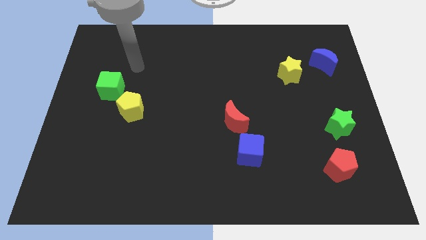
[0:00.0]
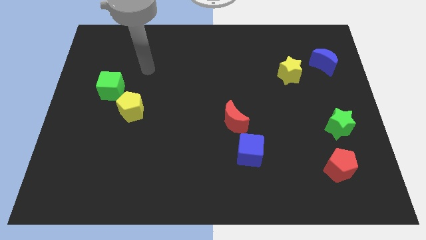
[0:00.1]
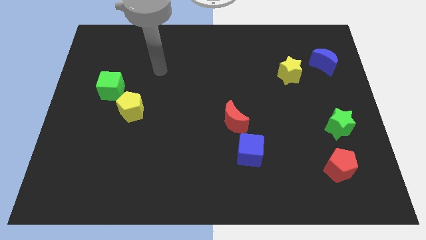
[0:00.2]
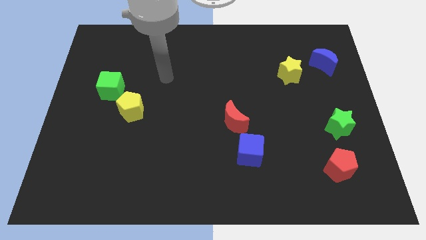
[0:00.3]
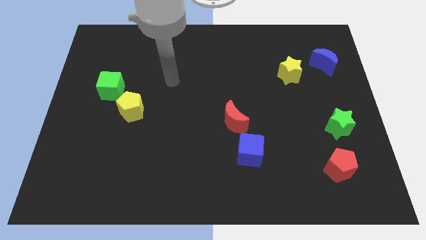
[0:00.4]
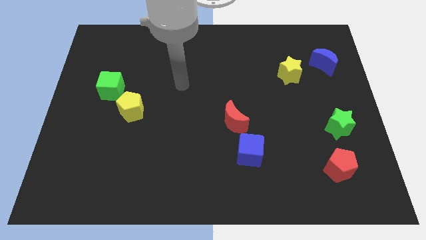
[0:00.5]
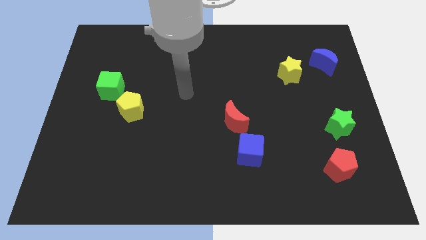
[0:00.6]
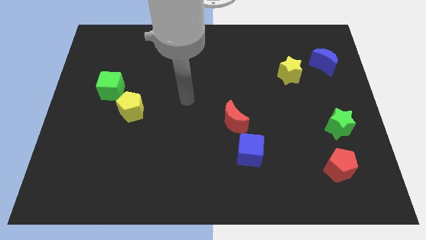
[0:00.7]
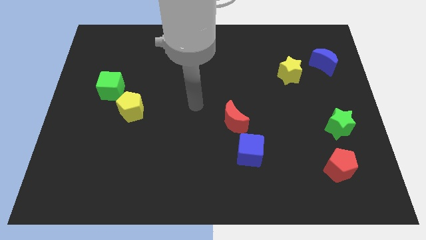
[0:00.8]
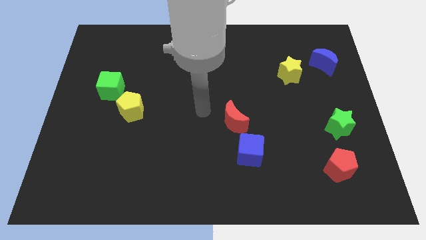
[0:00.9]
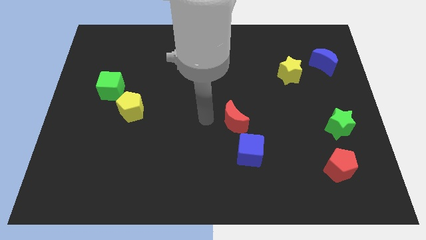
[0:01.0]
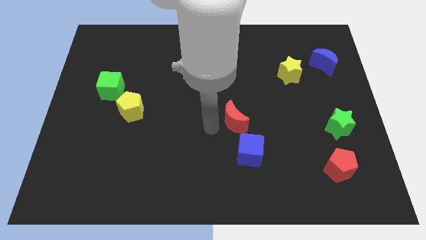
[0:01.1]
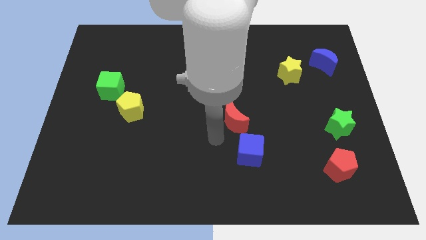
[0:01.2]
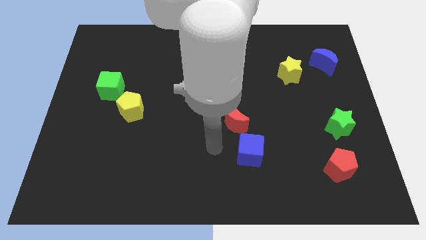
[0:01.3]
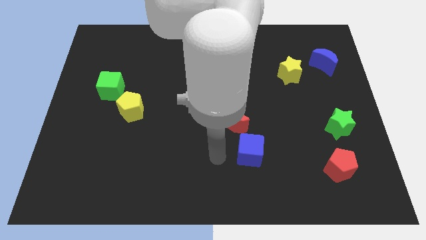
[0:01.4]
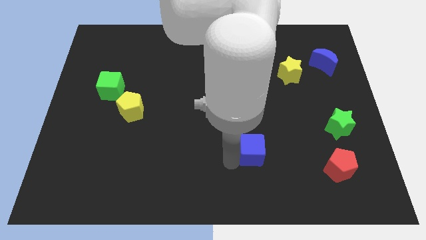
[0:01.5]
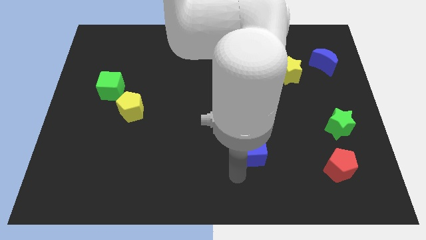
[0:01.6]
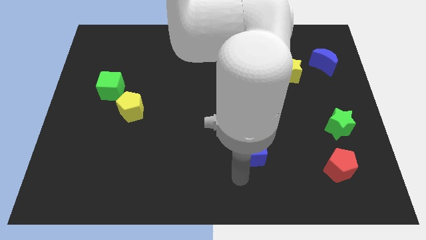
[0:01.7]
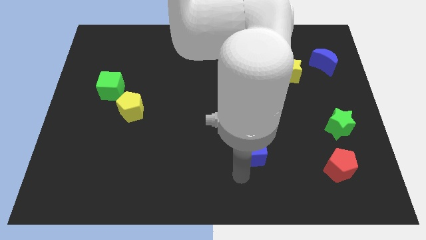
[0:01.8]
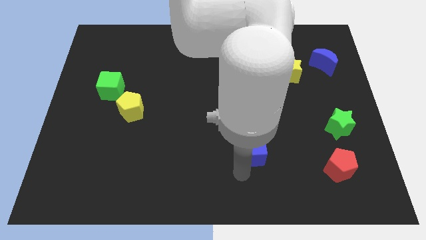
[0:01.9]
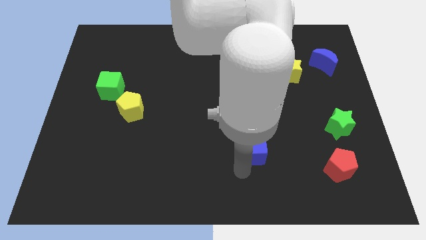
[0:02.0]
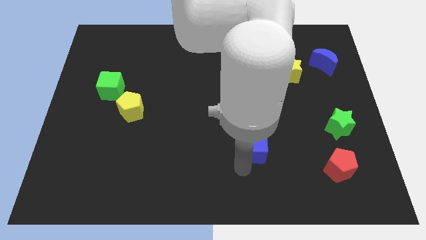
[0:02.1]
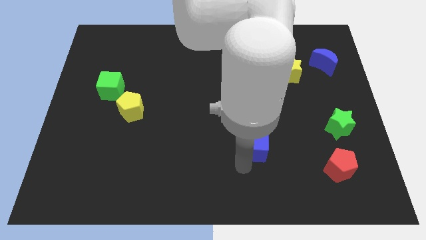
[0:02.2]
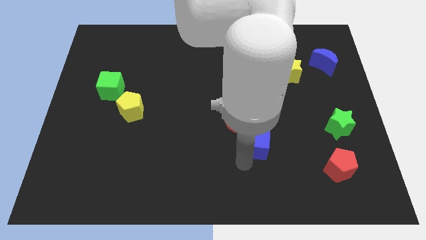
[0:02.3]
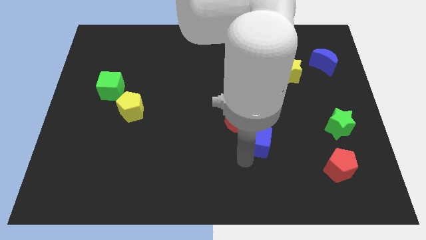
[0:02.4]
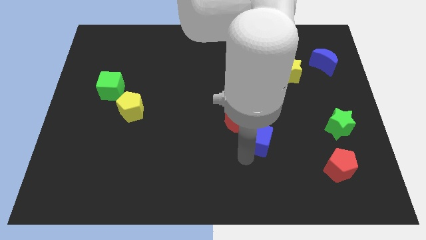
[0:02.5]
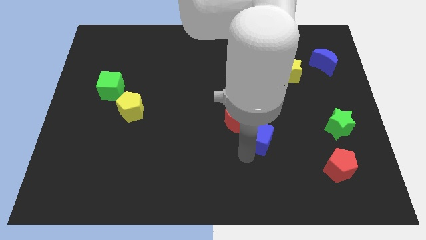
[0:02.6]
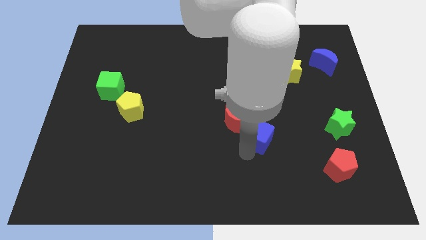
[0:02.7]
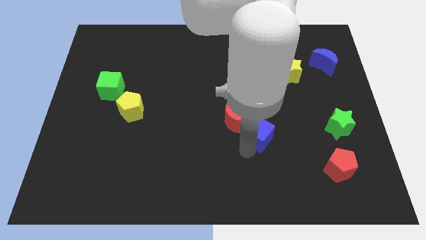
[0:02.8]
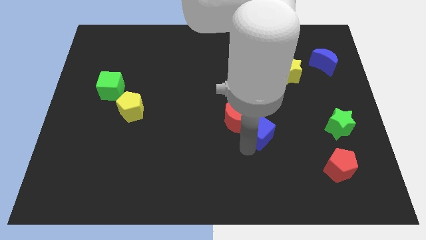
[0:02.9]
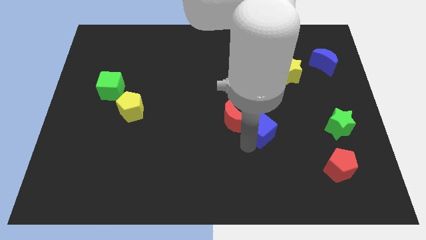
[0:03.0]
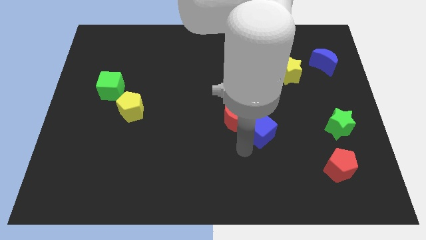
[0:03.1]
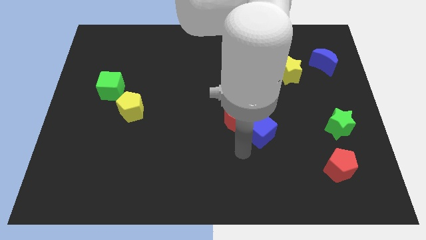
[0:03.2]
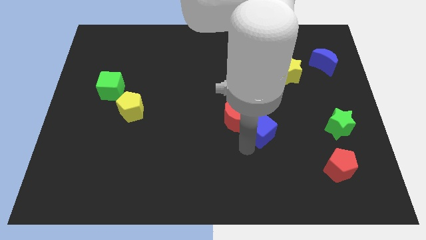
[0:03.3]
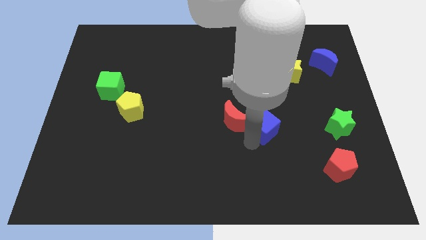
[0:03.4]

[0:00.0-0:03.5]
move the blue cube upwards and right a little bit

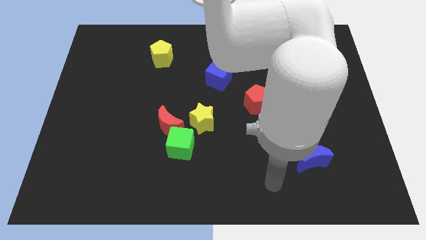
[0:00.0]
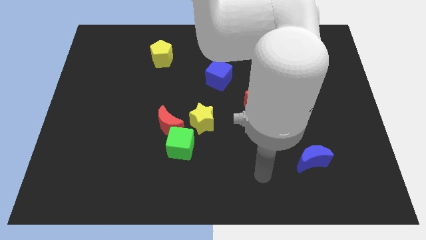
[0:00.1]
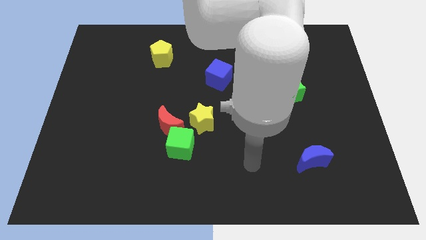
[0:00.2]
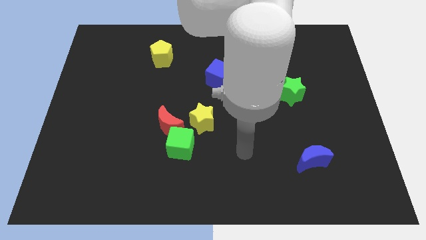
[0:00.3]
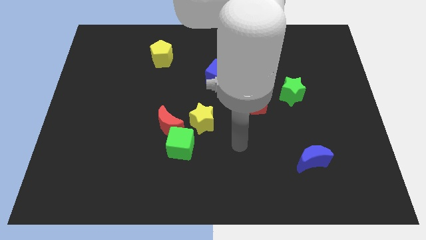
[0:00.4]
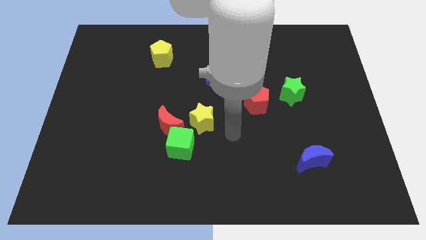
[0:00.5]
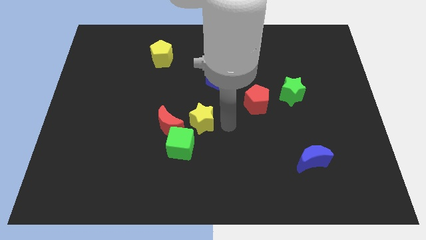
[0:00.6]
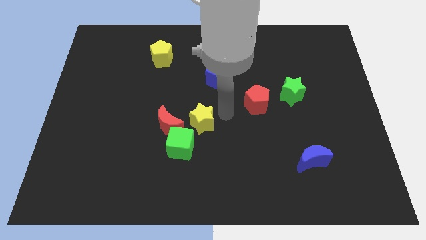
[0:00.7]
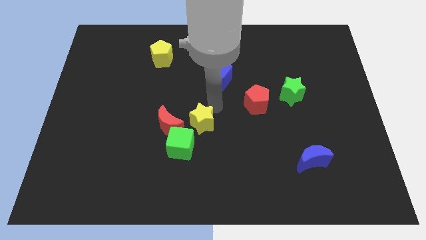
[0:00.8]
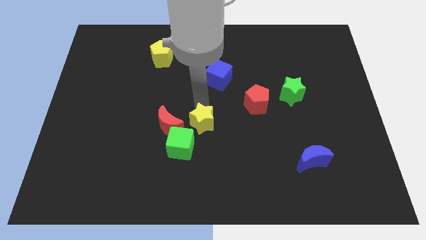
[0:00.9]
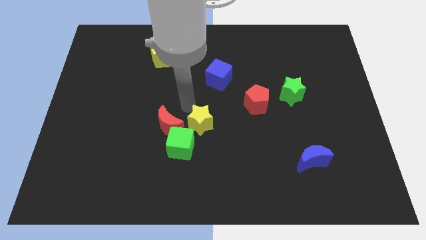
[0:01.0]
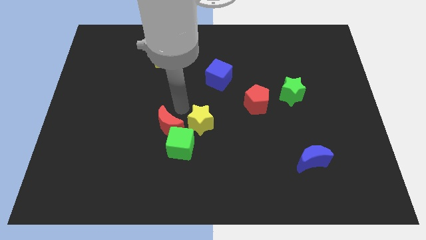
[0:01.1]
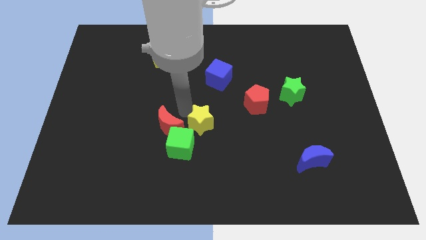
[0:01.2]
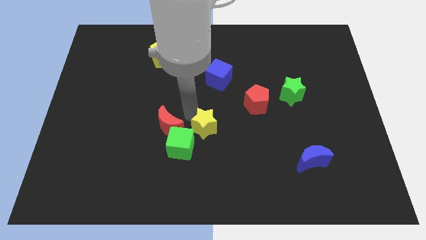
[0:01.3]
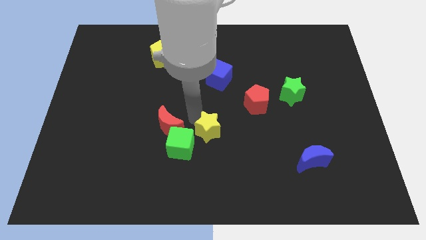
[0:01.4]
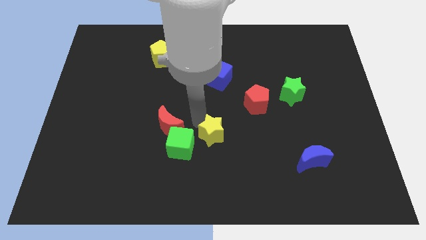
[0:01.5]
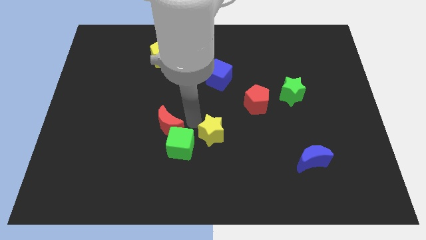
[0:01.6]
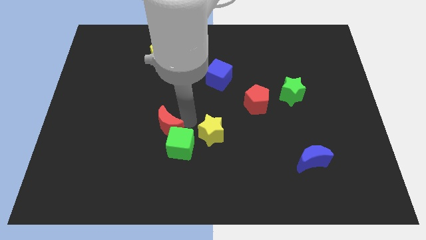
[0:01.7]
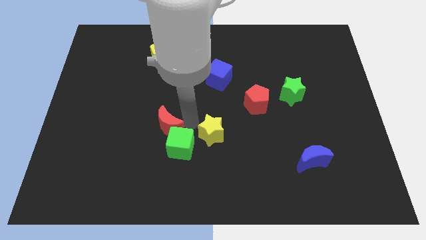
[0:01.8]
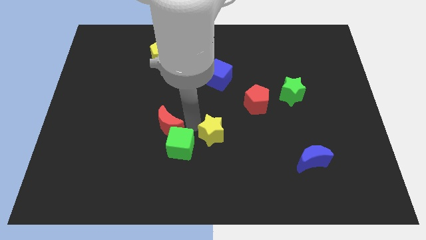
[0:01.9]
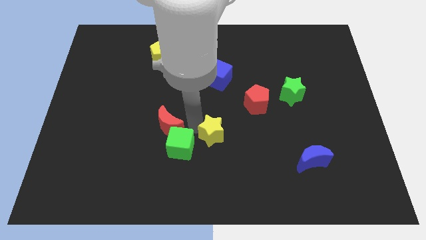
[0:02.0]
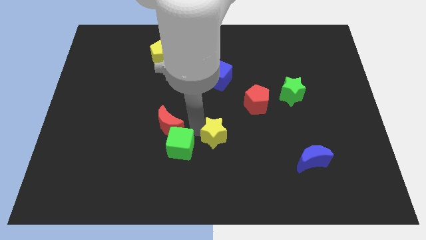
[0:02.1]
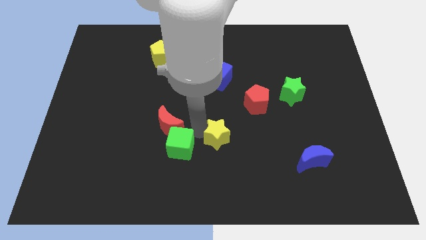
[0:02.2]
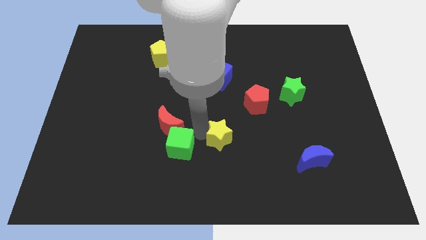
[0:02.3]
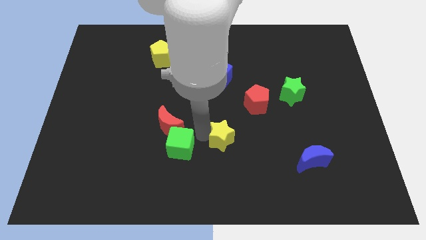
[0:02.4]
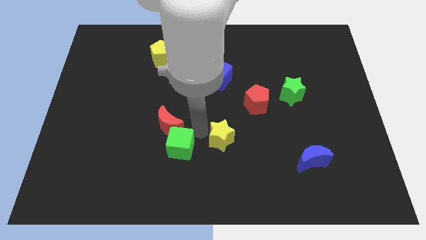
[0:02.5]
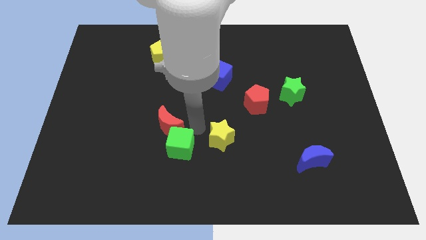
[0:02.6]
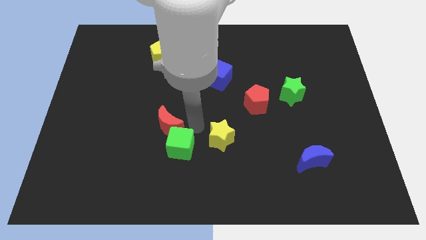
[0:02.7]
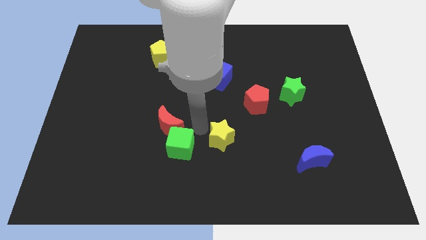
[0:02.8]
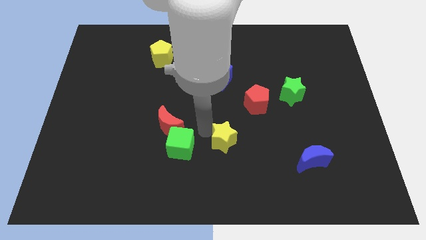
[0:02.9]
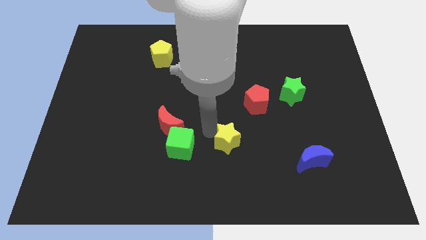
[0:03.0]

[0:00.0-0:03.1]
slightly push the yellow star downwards and right diagonally

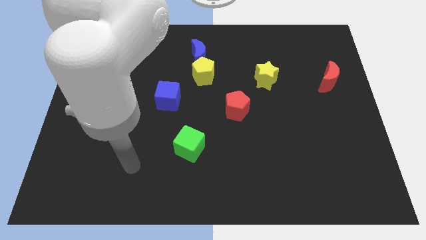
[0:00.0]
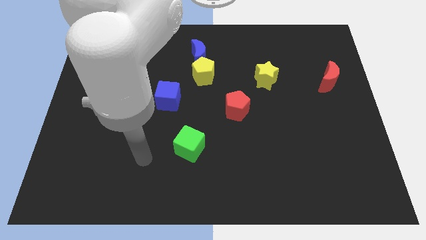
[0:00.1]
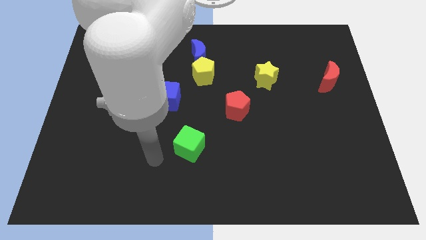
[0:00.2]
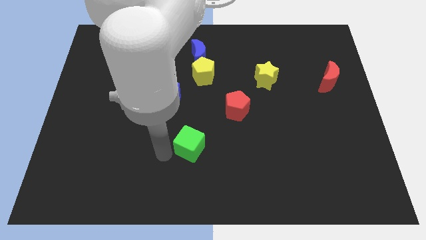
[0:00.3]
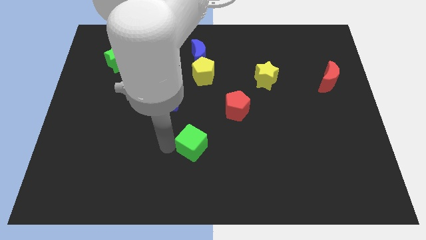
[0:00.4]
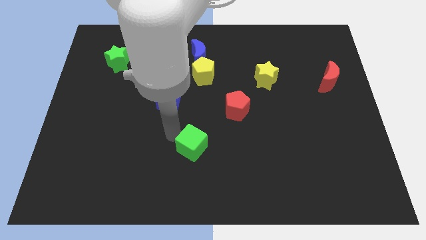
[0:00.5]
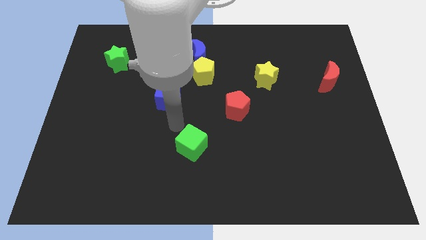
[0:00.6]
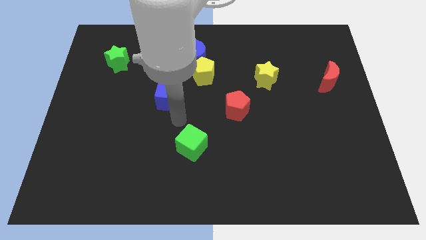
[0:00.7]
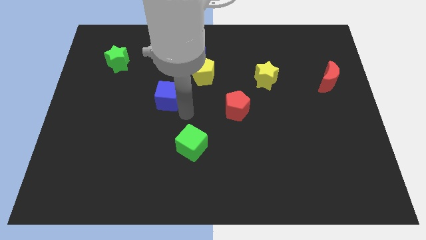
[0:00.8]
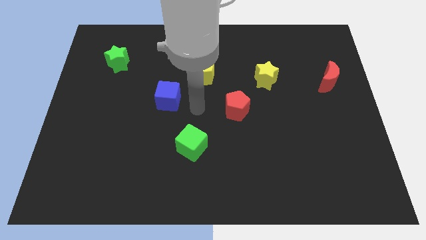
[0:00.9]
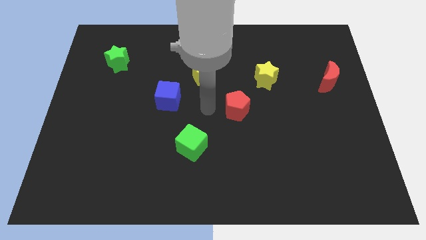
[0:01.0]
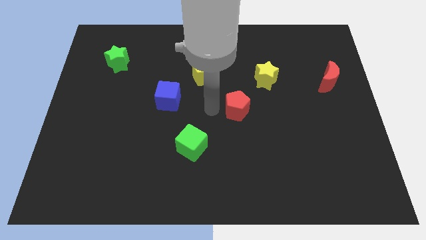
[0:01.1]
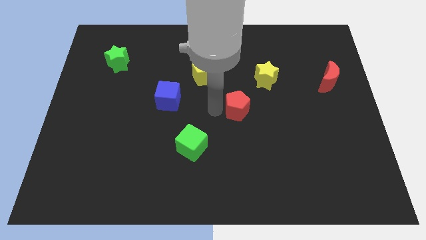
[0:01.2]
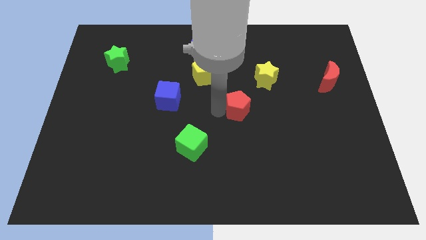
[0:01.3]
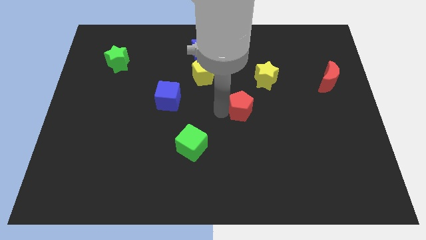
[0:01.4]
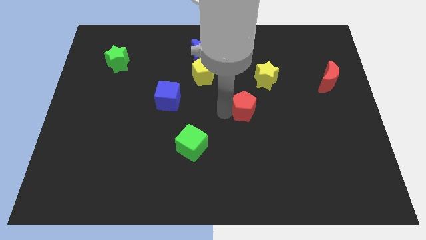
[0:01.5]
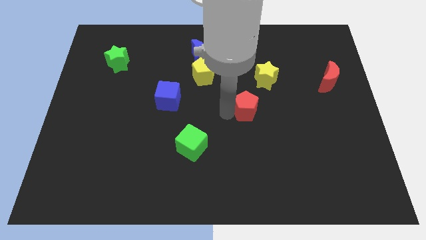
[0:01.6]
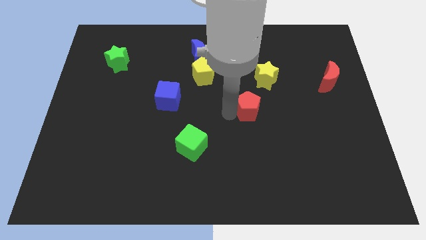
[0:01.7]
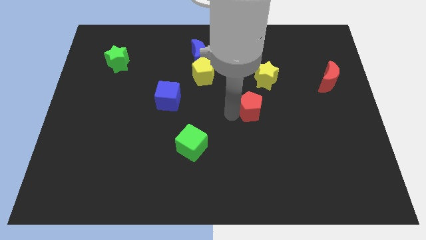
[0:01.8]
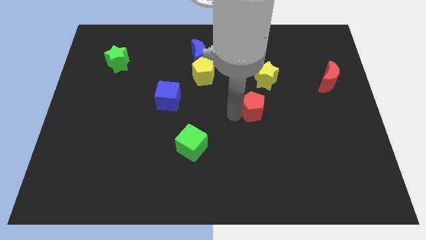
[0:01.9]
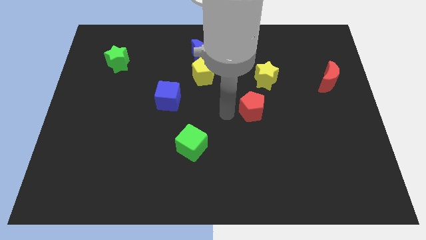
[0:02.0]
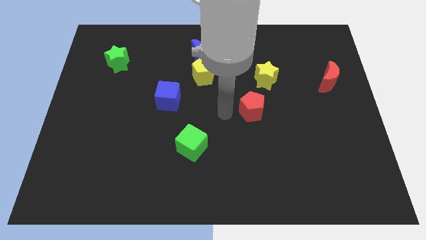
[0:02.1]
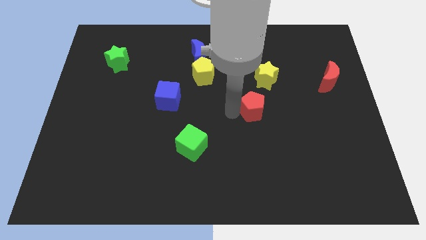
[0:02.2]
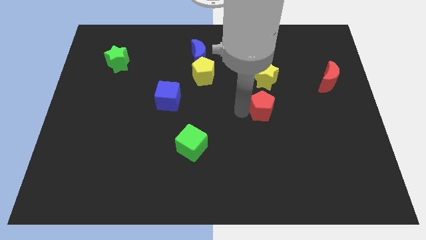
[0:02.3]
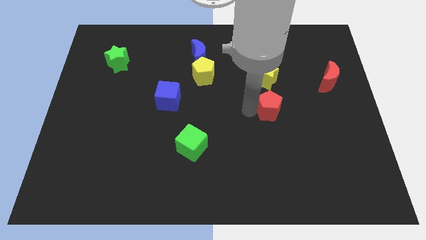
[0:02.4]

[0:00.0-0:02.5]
move the red pentagon to the right slightly
